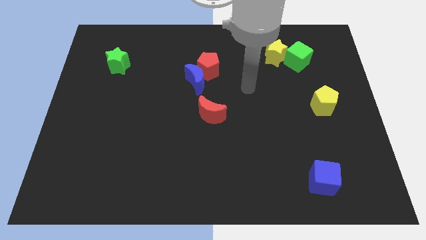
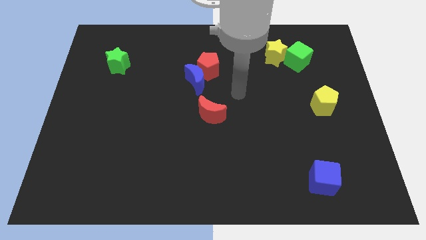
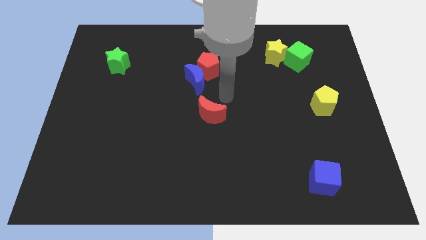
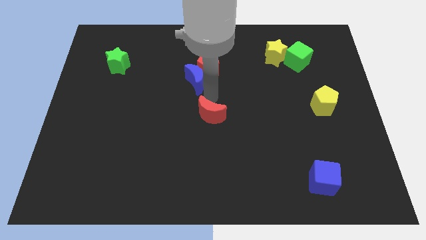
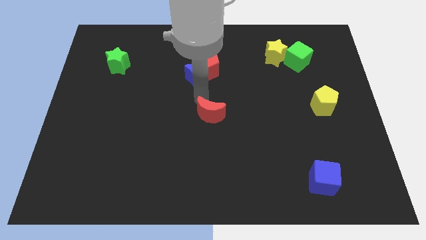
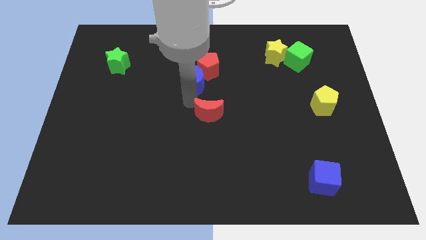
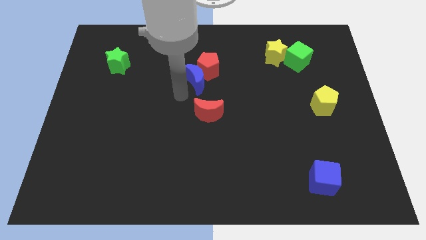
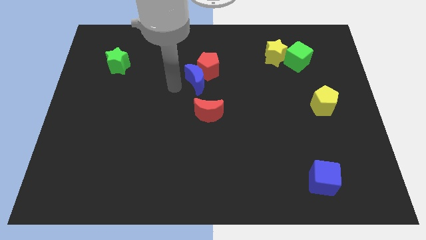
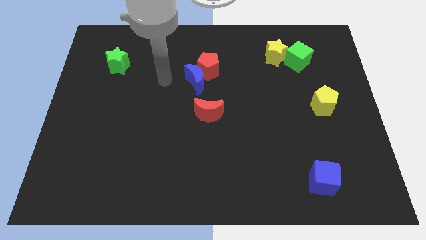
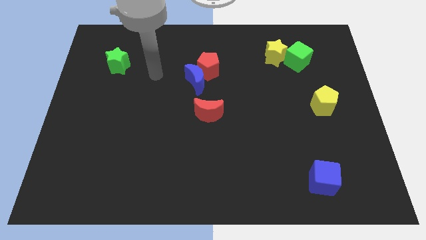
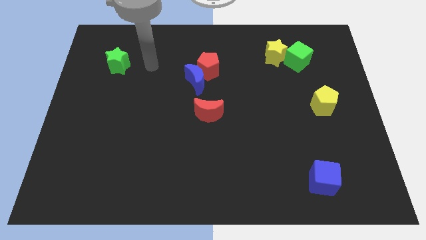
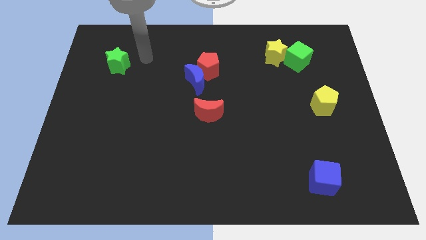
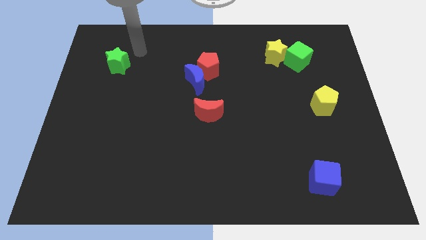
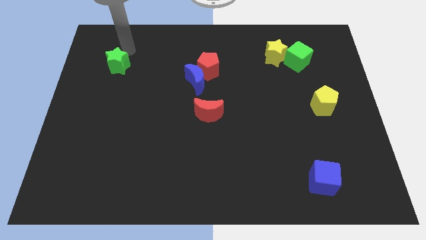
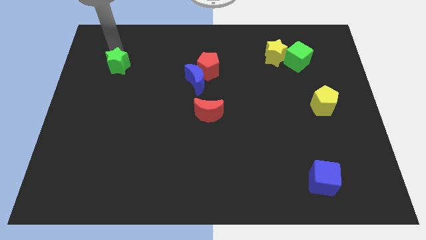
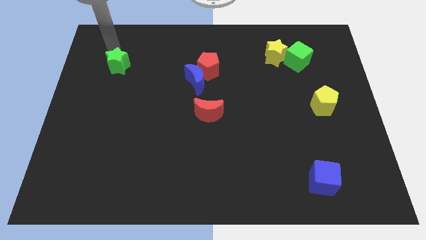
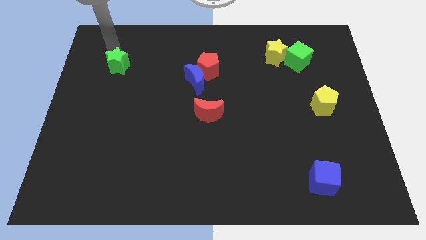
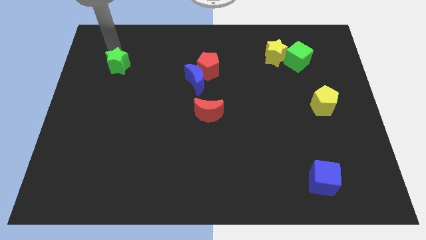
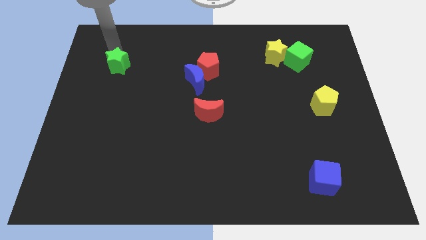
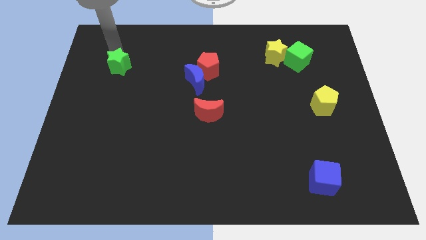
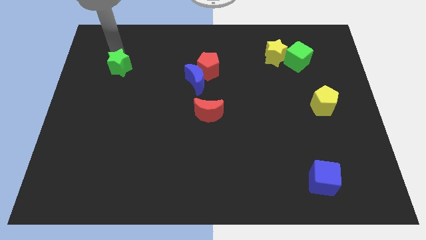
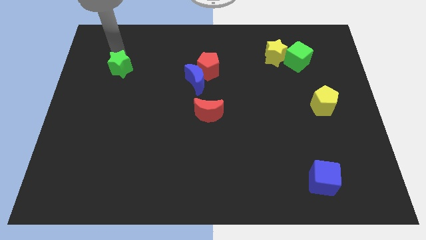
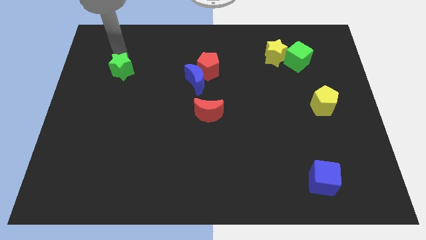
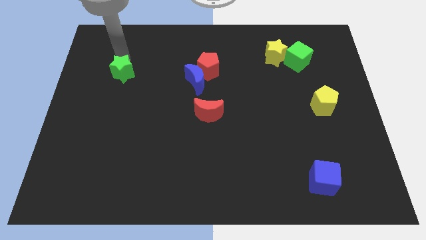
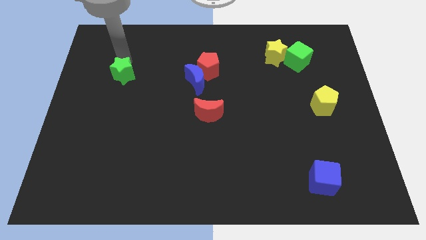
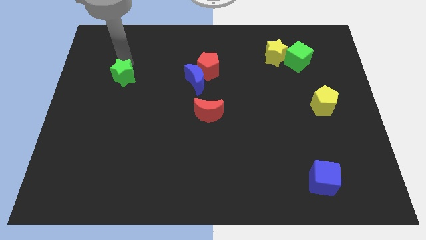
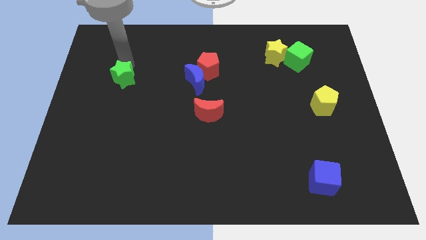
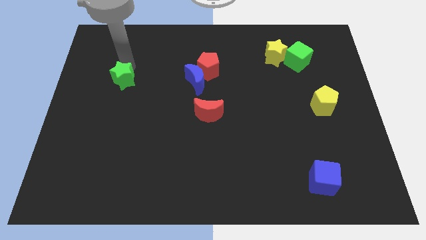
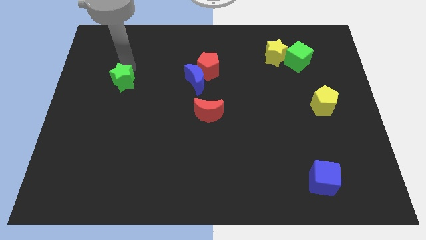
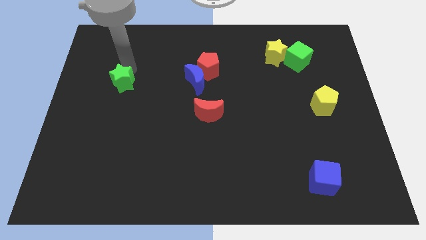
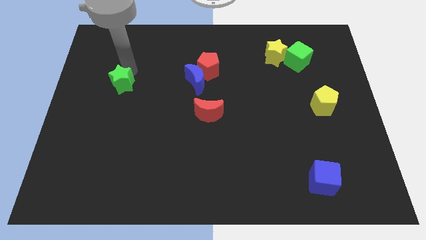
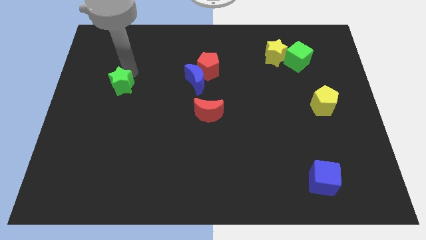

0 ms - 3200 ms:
slightly push the green star down

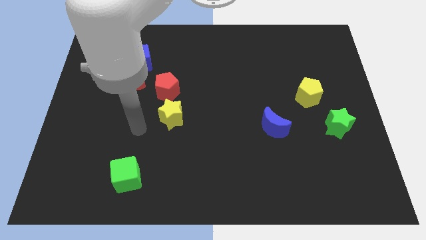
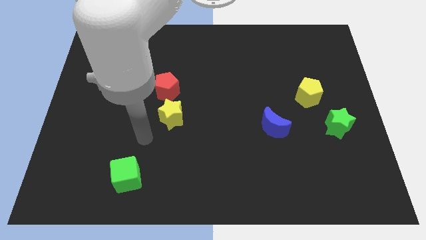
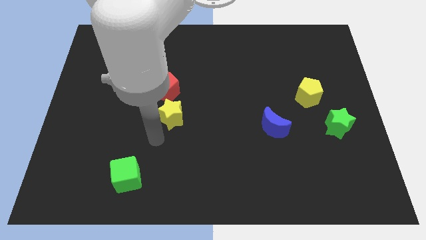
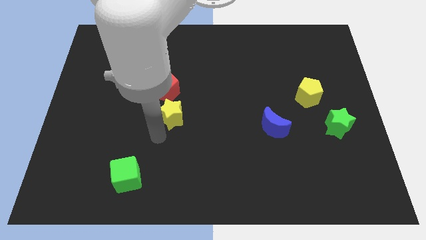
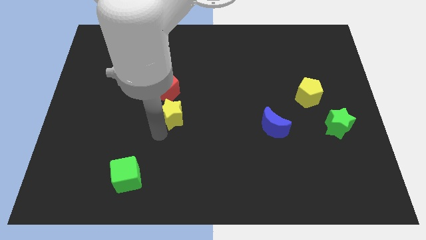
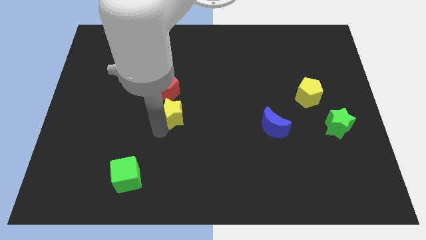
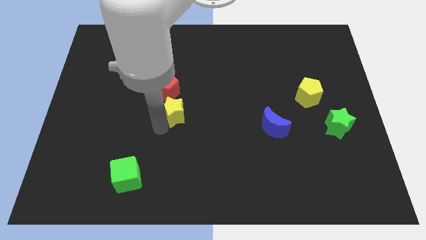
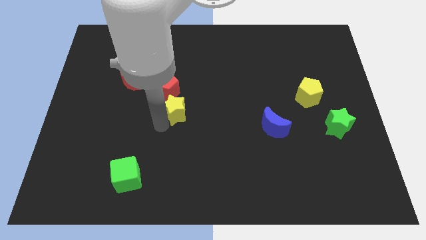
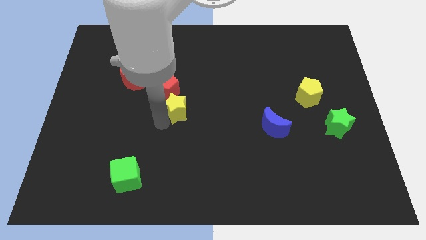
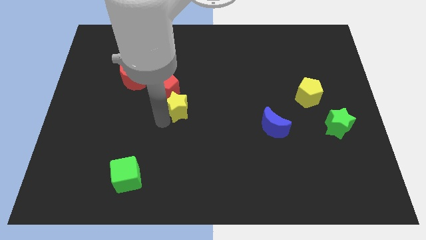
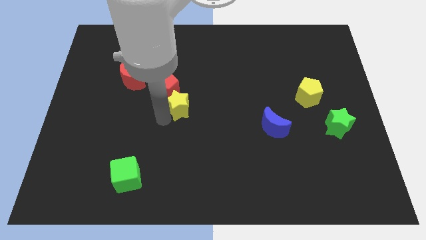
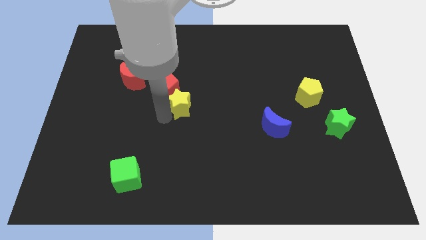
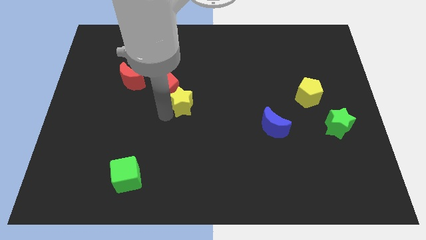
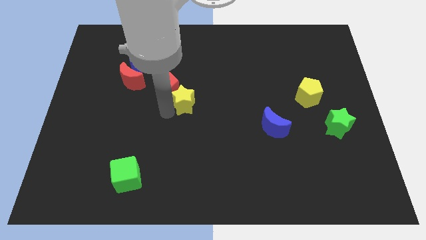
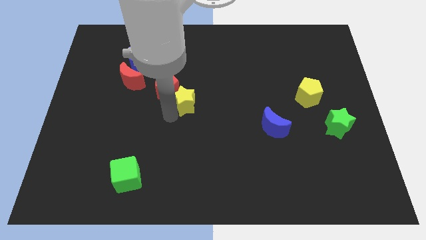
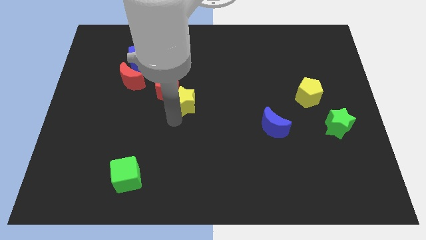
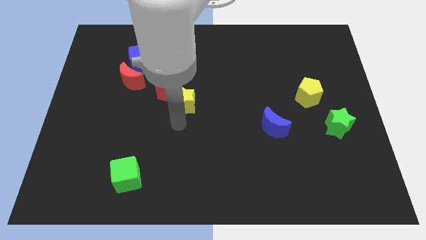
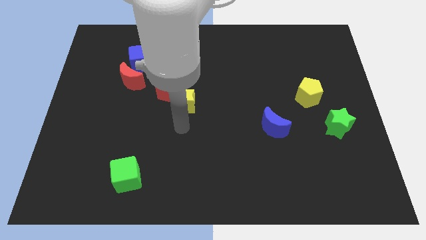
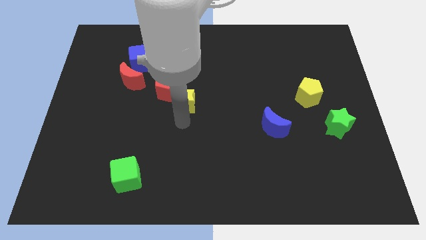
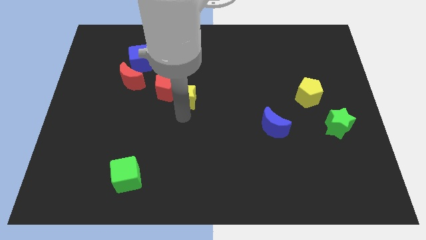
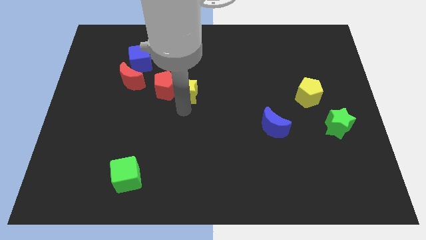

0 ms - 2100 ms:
slightly push the yellow star up

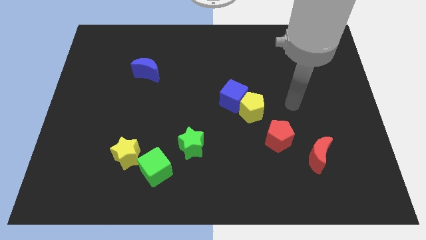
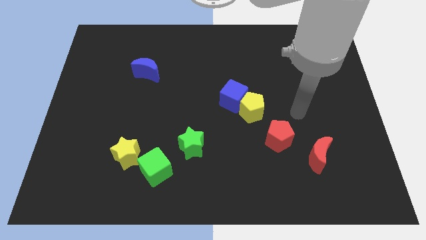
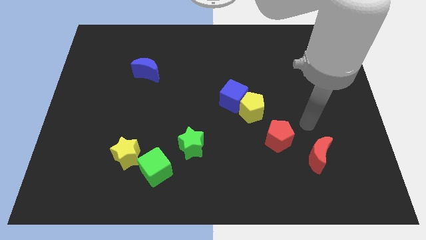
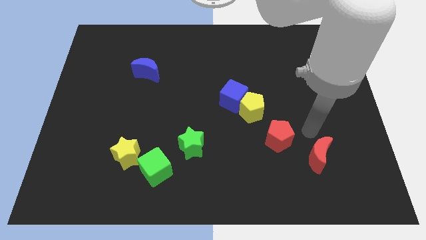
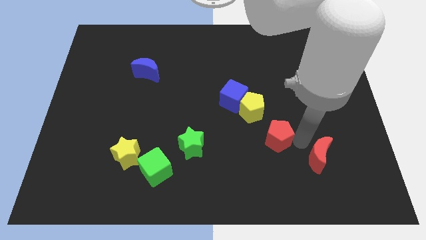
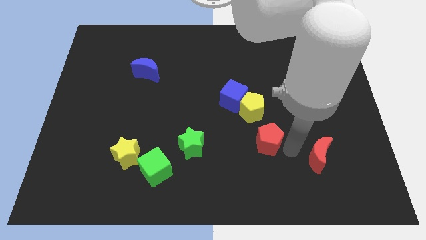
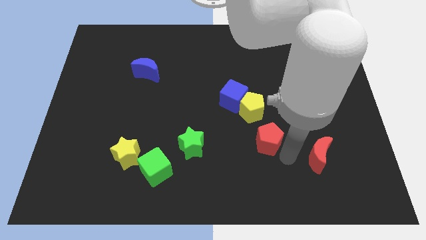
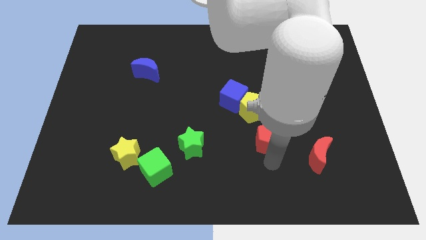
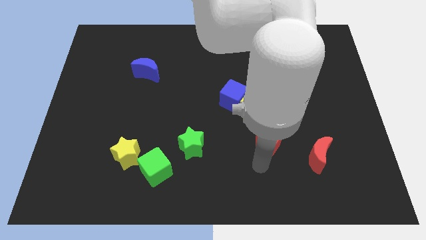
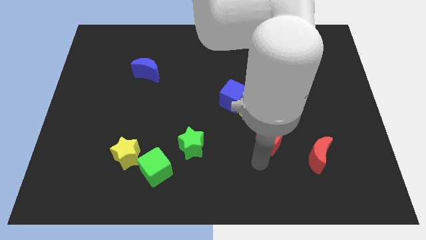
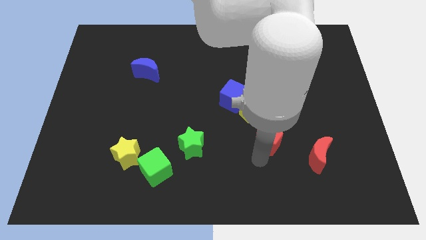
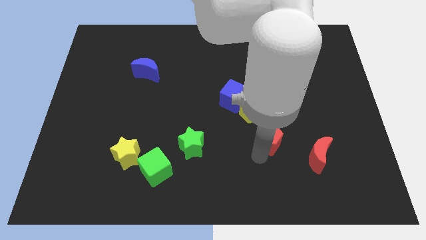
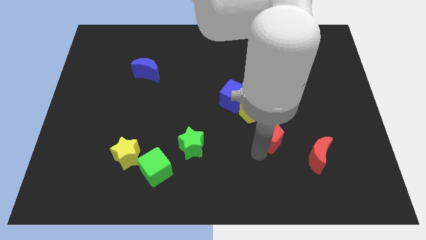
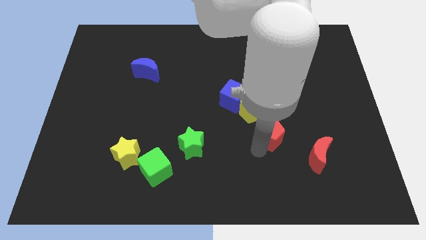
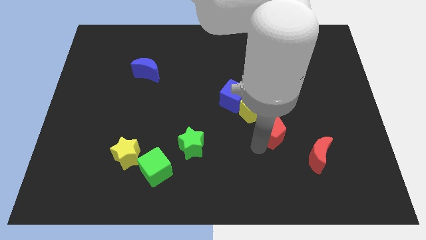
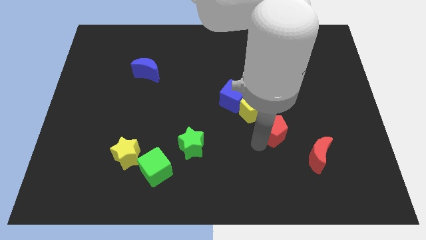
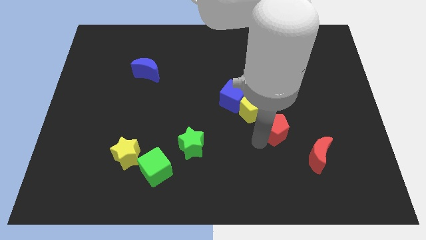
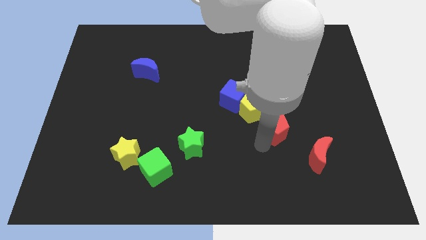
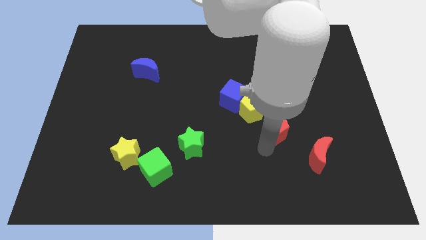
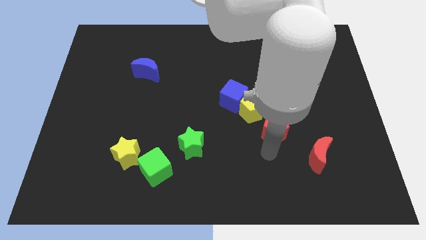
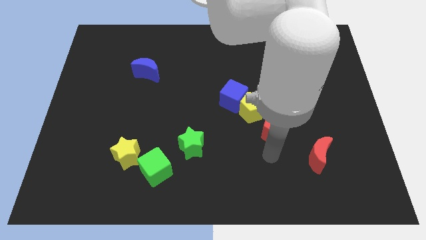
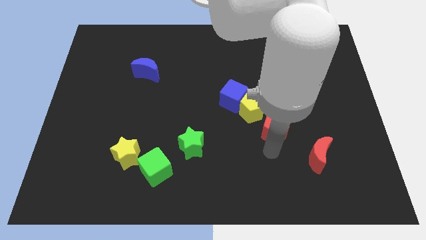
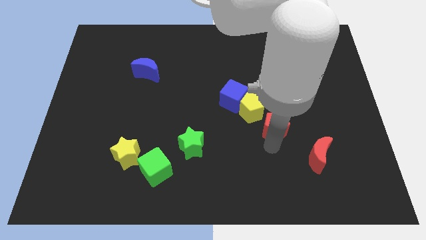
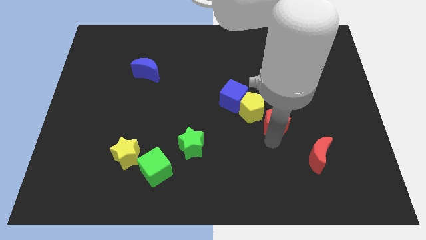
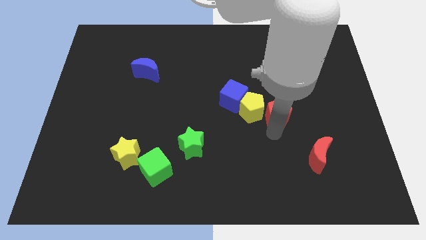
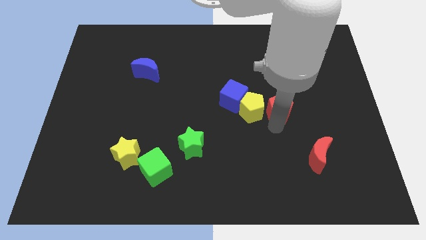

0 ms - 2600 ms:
move the red pentagon upwards a little

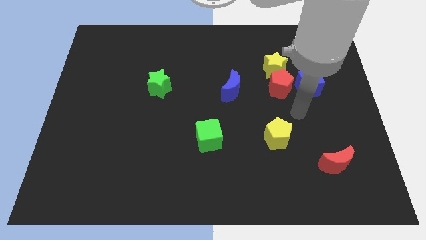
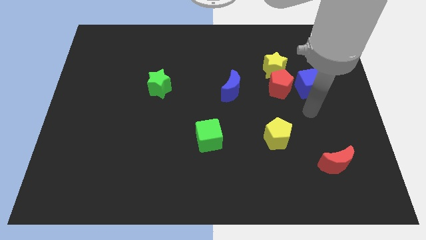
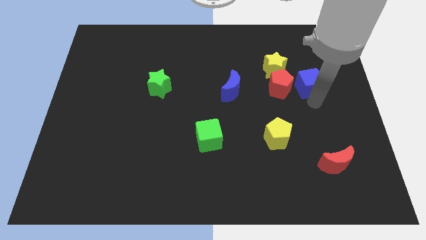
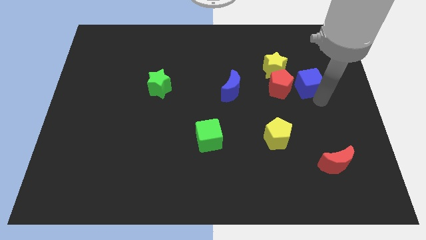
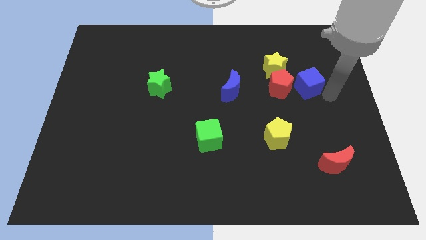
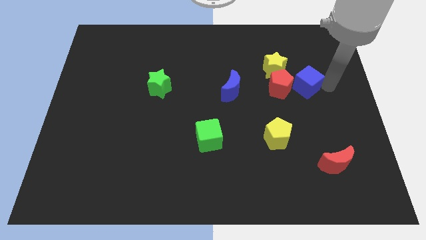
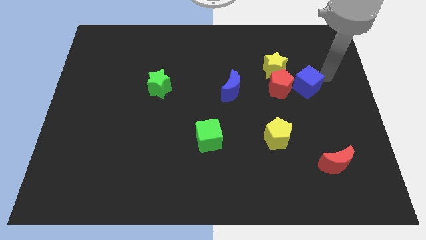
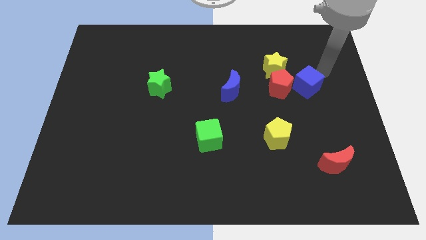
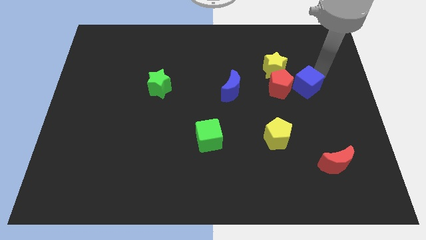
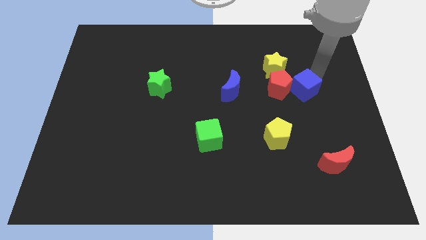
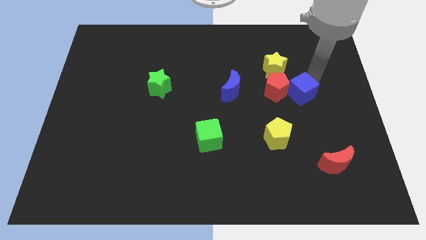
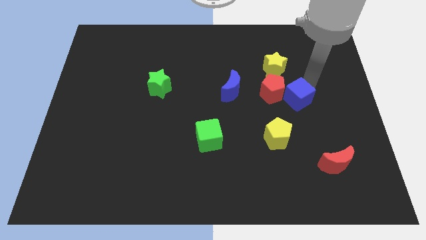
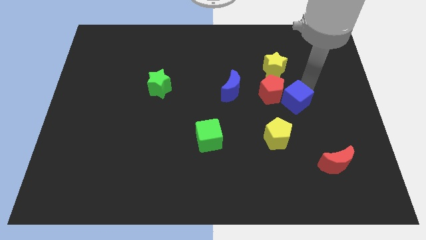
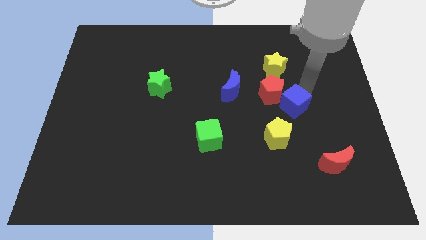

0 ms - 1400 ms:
slightly move the blue cube downwards and left
